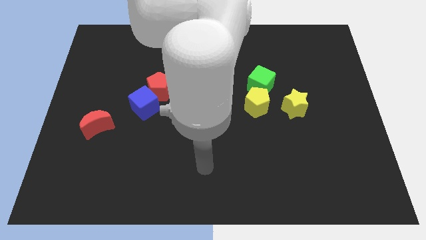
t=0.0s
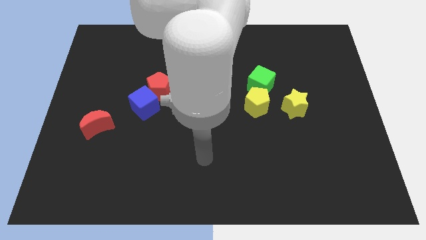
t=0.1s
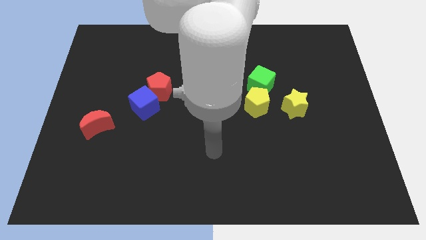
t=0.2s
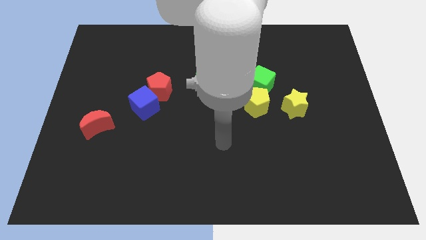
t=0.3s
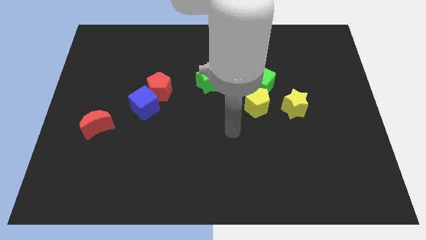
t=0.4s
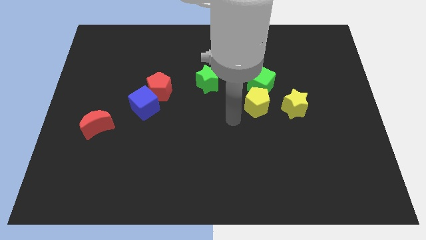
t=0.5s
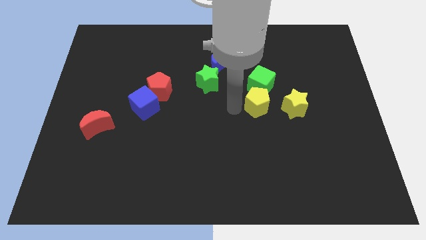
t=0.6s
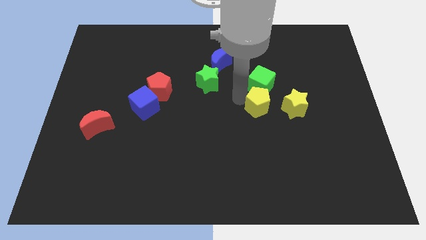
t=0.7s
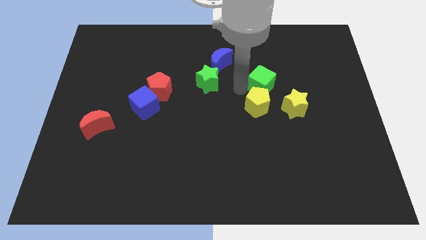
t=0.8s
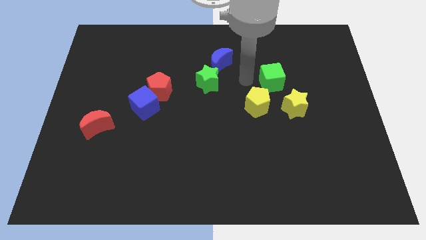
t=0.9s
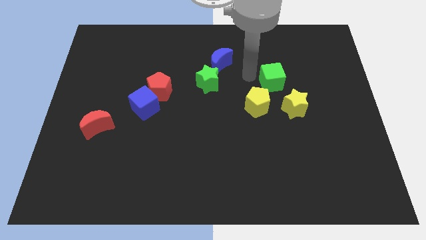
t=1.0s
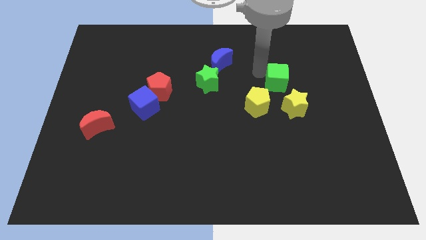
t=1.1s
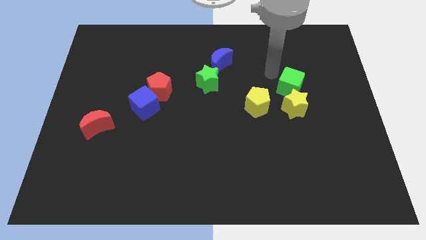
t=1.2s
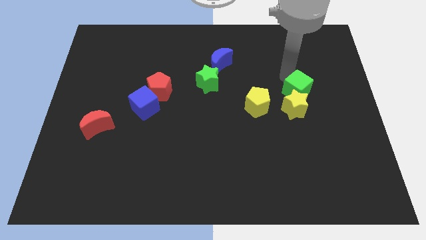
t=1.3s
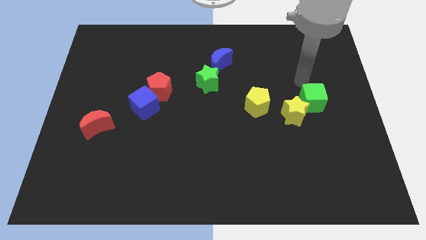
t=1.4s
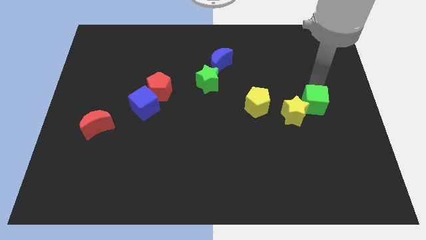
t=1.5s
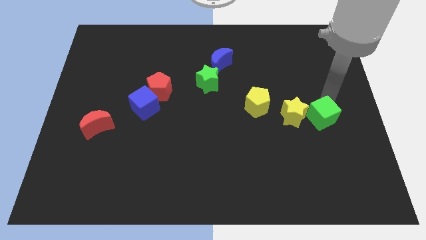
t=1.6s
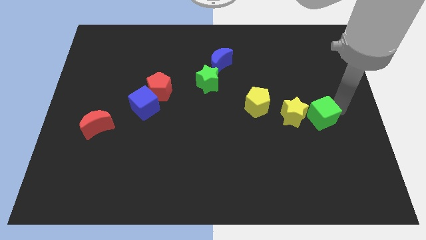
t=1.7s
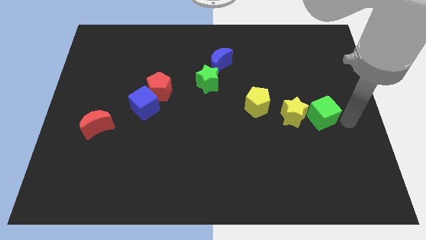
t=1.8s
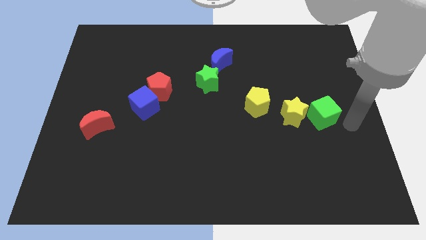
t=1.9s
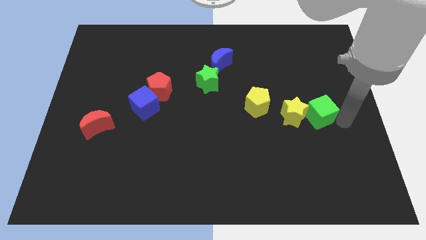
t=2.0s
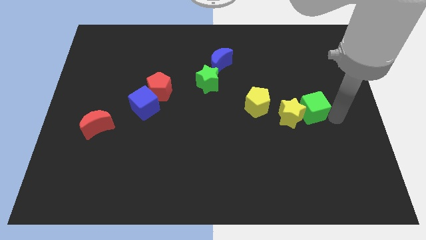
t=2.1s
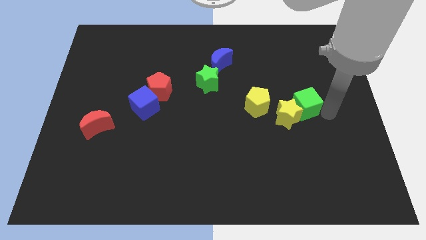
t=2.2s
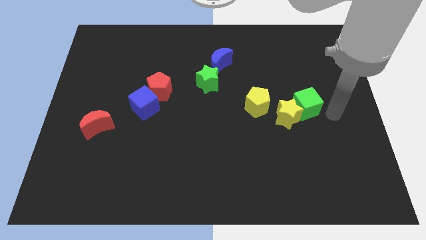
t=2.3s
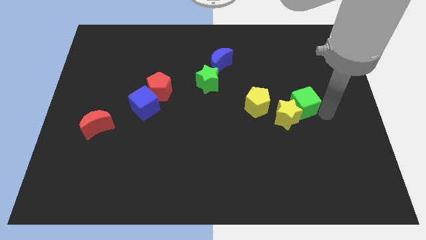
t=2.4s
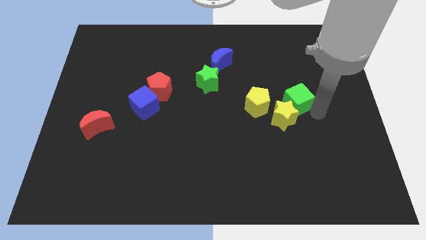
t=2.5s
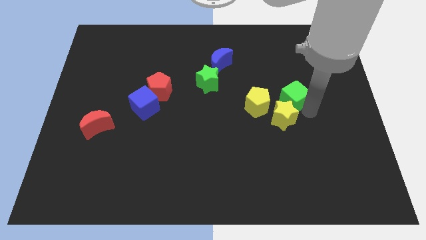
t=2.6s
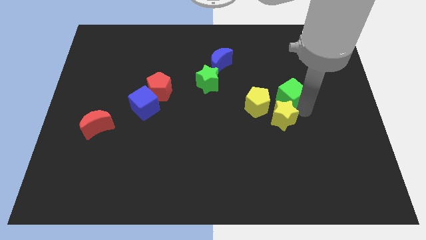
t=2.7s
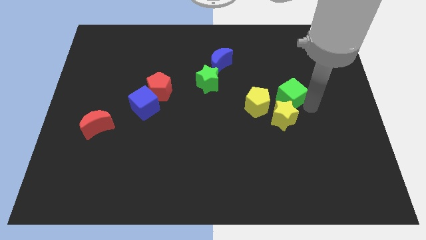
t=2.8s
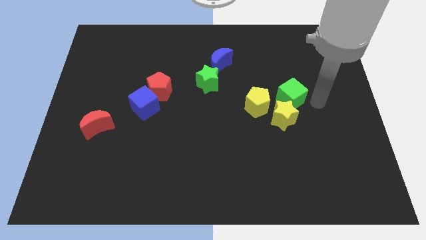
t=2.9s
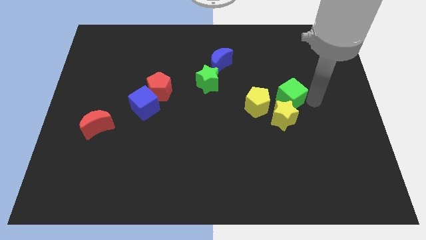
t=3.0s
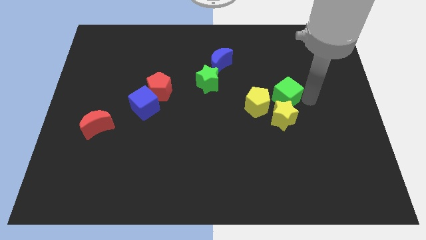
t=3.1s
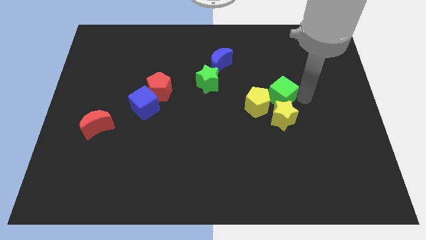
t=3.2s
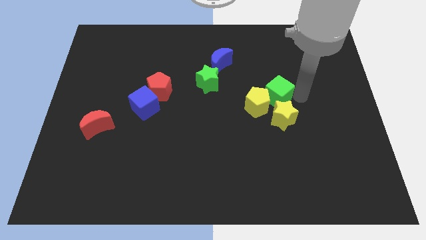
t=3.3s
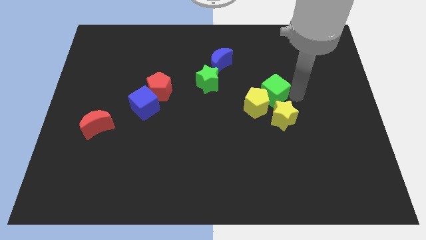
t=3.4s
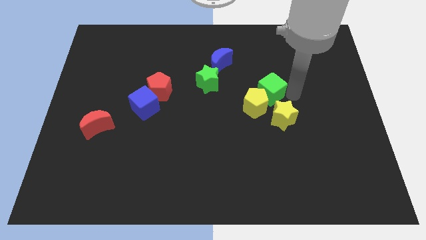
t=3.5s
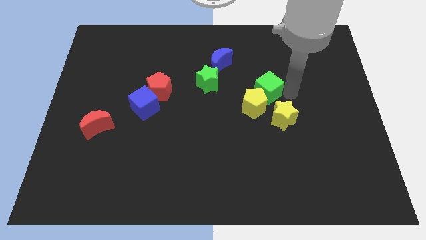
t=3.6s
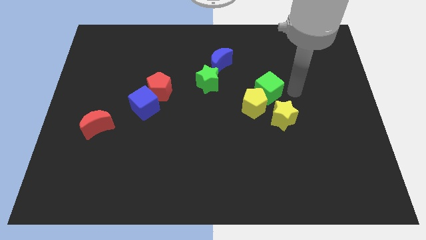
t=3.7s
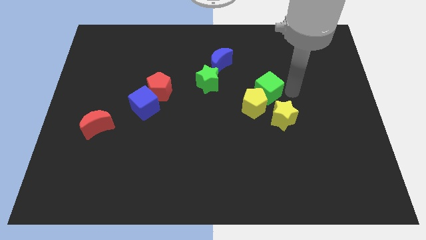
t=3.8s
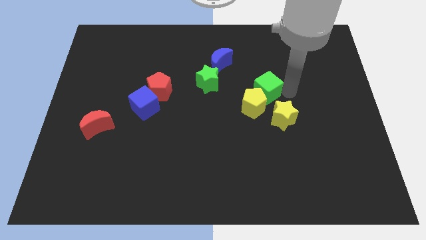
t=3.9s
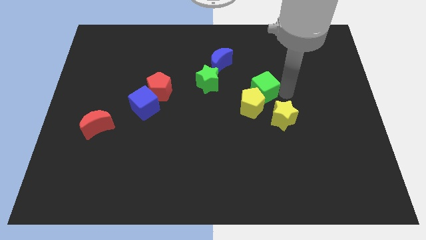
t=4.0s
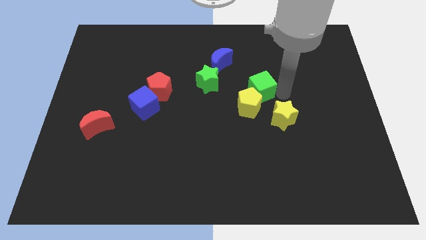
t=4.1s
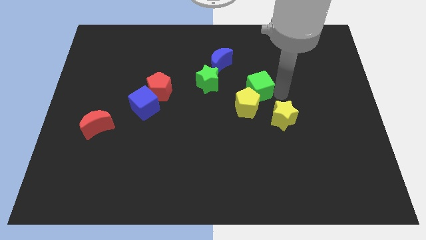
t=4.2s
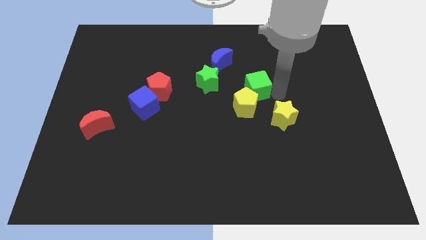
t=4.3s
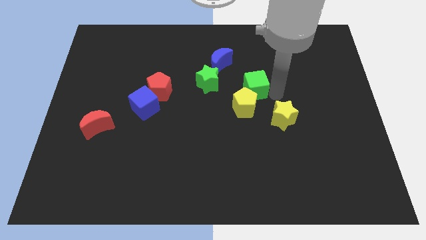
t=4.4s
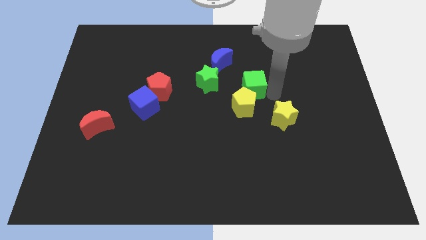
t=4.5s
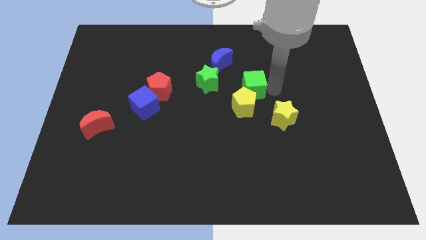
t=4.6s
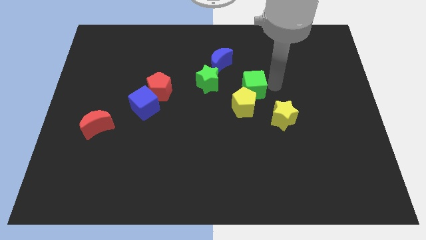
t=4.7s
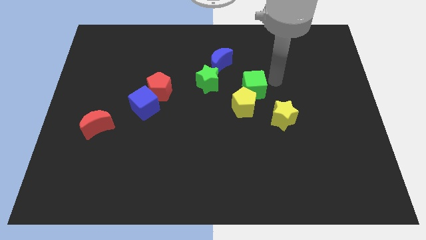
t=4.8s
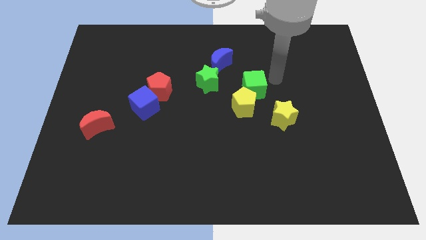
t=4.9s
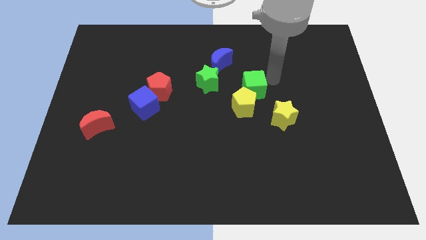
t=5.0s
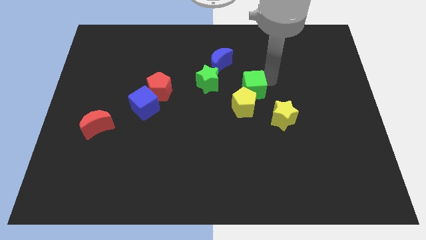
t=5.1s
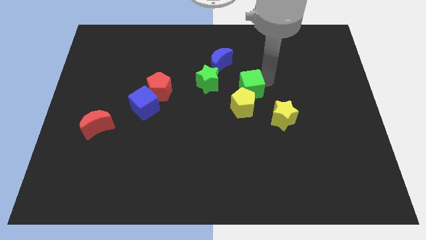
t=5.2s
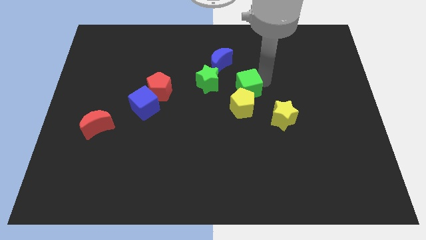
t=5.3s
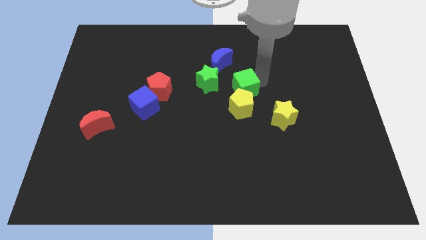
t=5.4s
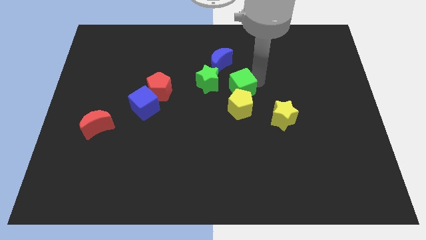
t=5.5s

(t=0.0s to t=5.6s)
move the green cube diagonally down and to the right of the green star
